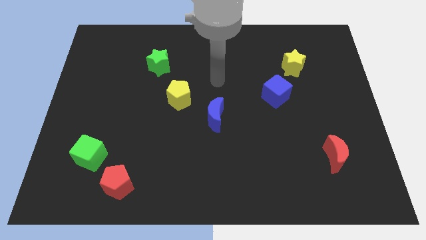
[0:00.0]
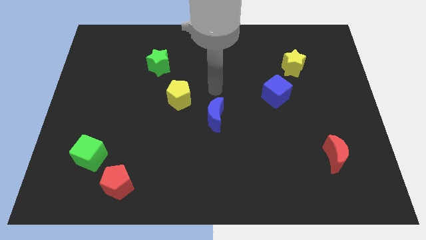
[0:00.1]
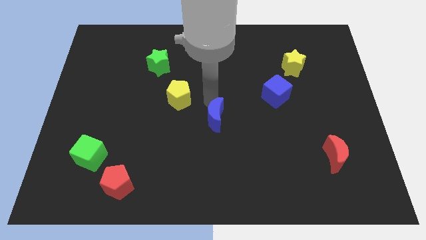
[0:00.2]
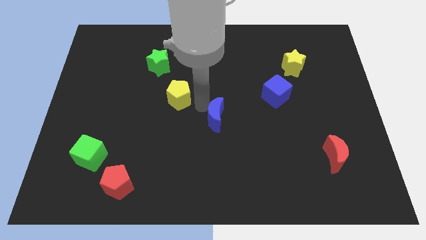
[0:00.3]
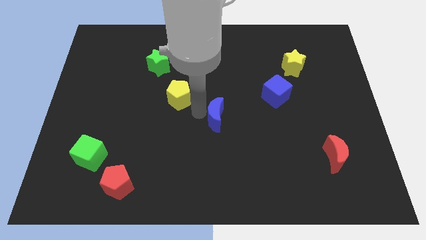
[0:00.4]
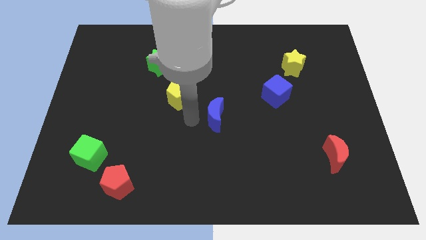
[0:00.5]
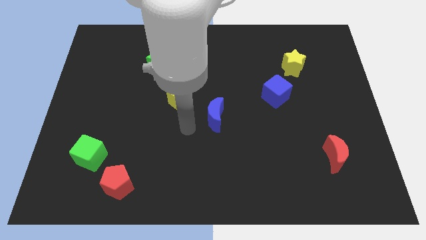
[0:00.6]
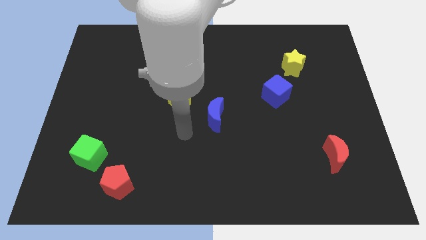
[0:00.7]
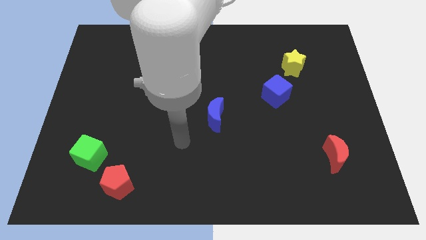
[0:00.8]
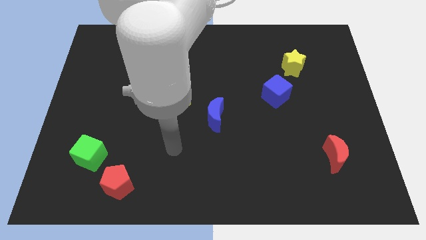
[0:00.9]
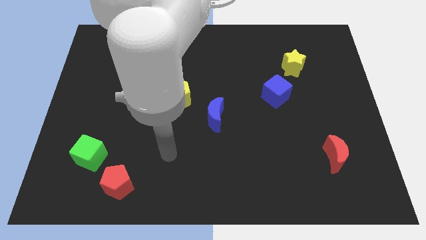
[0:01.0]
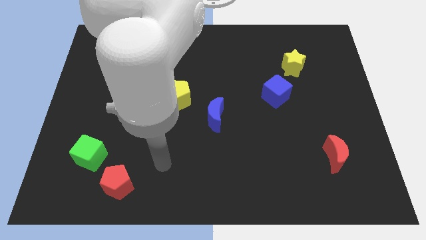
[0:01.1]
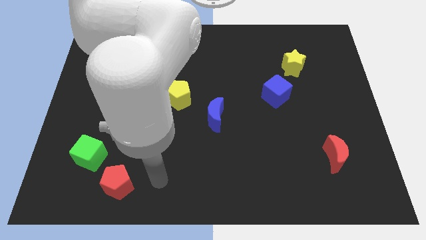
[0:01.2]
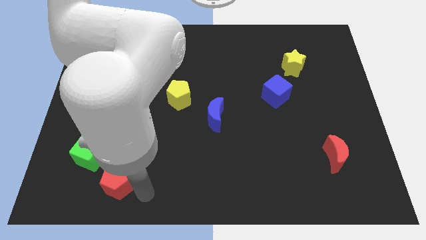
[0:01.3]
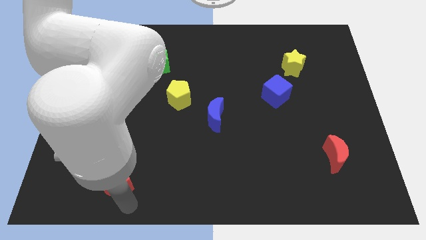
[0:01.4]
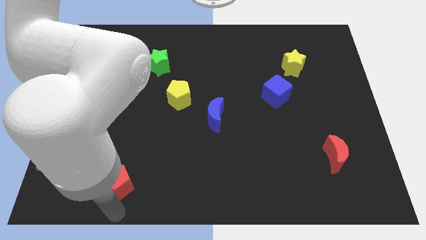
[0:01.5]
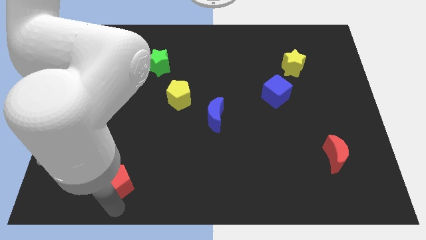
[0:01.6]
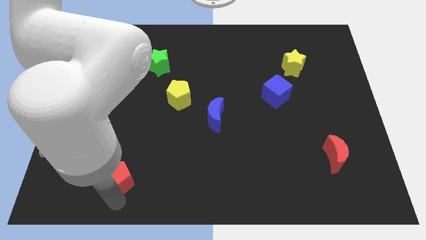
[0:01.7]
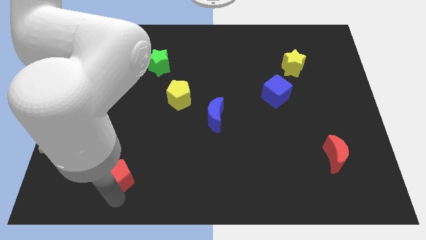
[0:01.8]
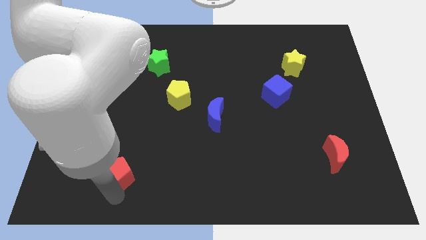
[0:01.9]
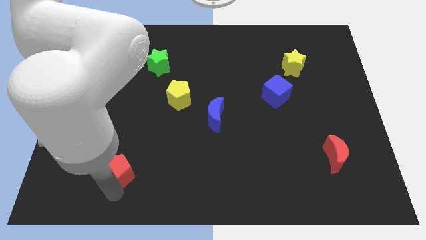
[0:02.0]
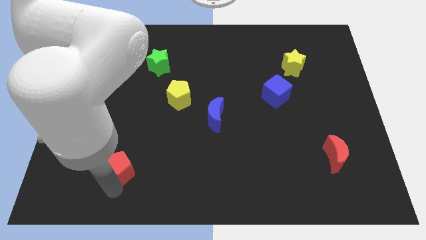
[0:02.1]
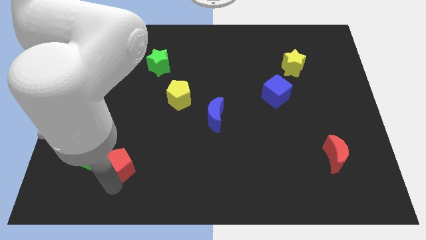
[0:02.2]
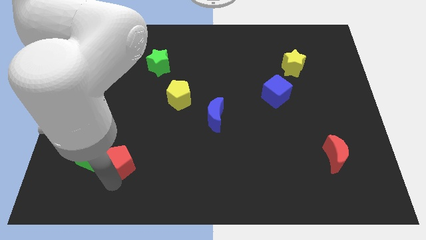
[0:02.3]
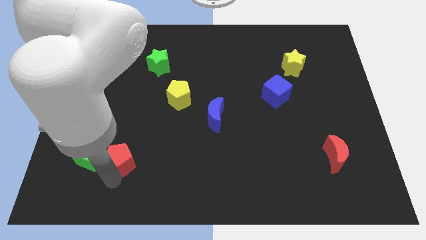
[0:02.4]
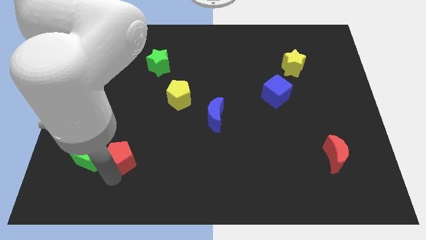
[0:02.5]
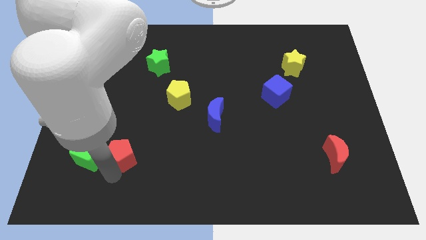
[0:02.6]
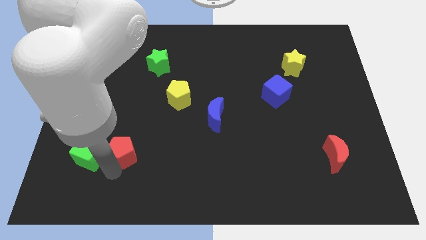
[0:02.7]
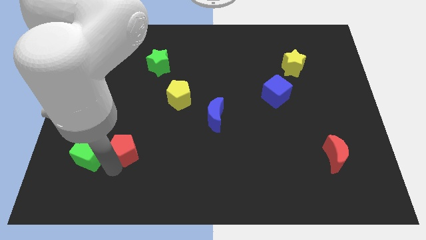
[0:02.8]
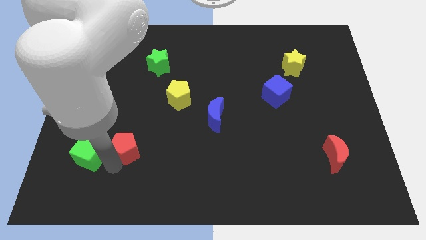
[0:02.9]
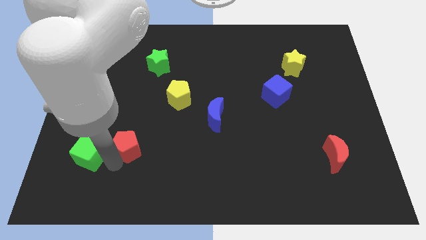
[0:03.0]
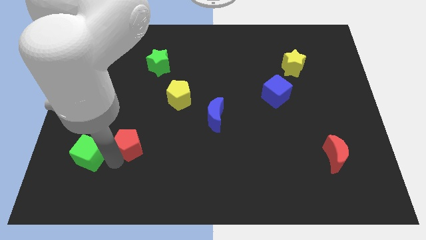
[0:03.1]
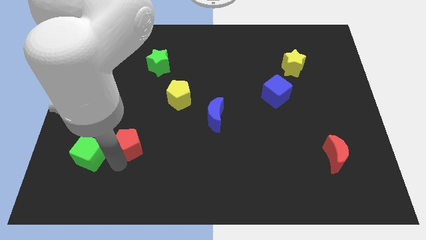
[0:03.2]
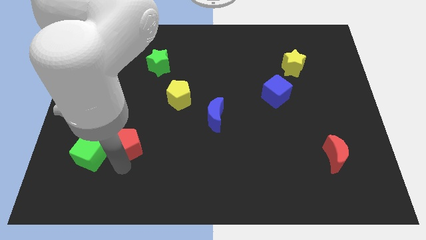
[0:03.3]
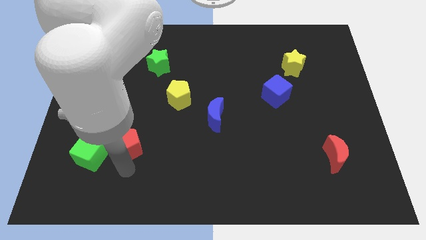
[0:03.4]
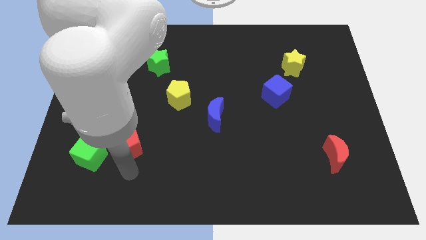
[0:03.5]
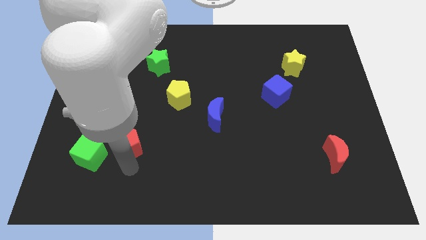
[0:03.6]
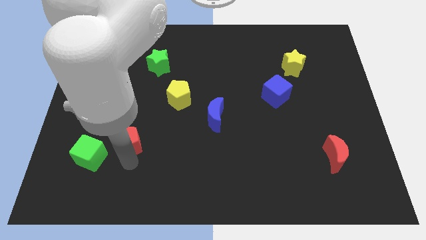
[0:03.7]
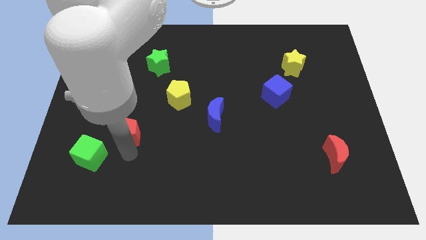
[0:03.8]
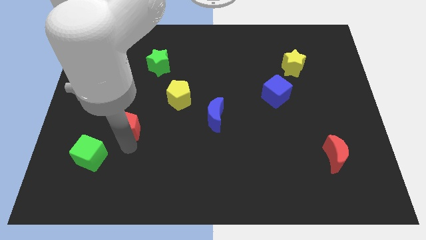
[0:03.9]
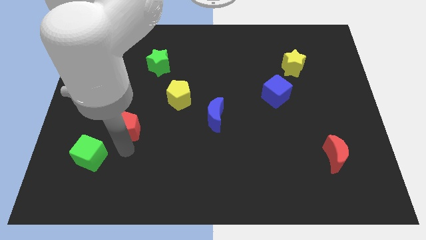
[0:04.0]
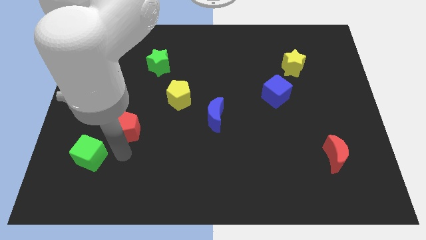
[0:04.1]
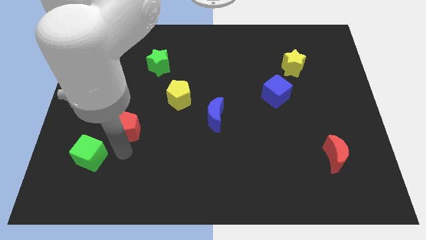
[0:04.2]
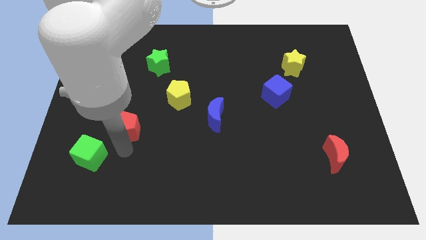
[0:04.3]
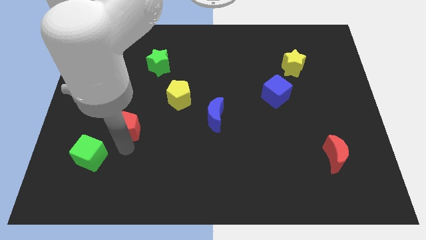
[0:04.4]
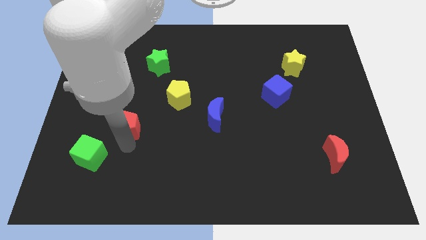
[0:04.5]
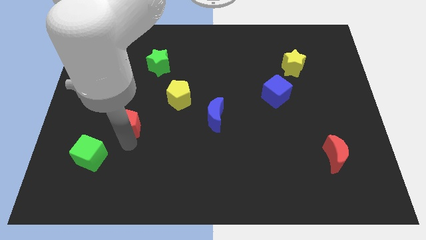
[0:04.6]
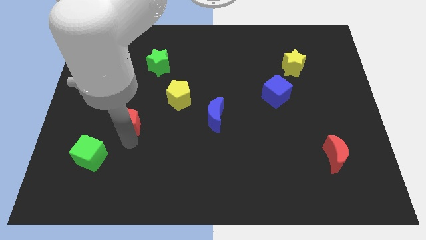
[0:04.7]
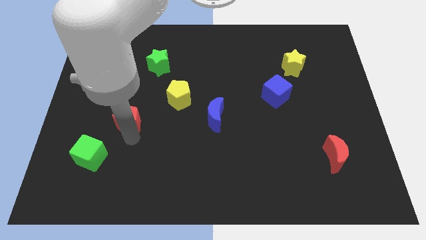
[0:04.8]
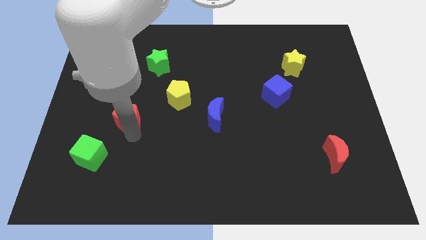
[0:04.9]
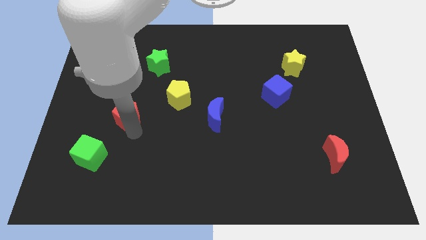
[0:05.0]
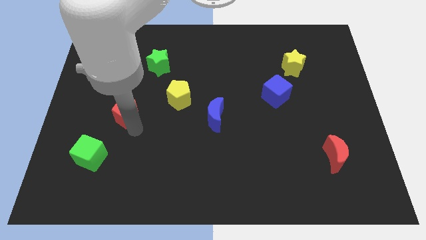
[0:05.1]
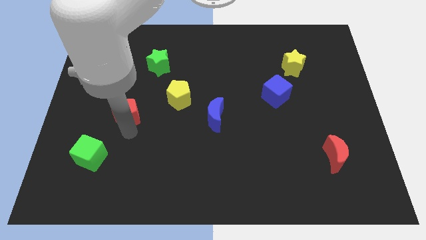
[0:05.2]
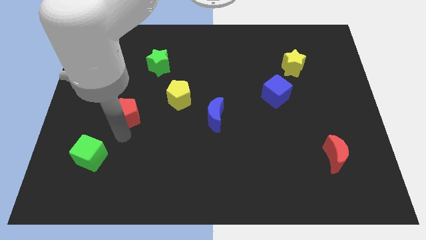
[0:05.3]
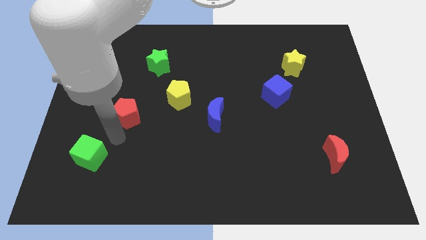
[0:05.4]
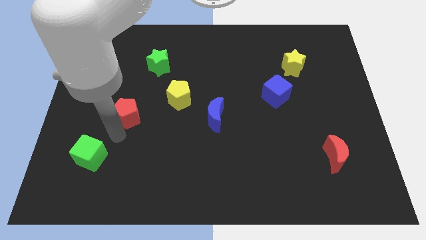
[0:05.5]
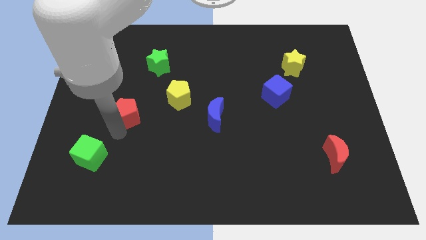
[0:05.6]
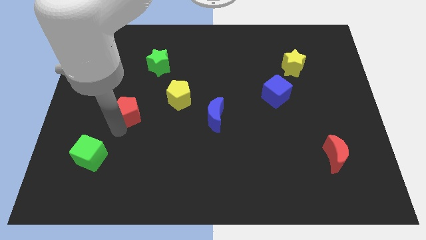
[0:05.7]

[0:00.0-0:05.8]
slide the red pentagon to the left of the yellow pentagon

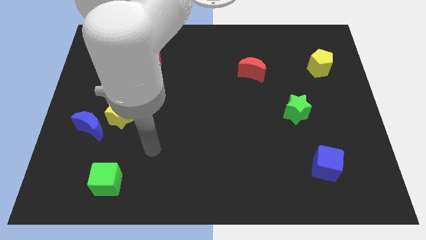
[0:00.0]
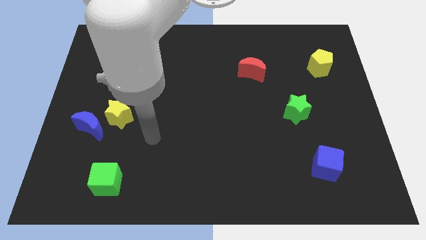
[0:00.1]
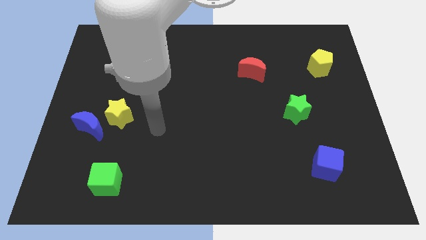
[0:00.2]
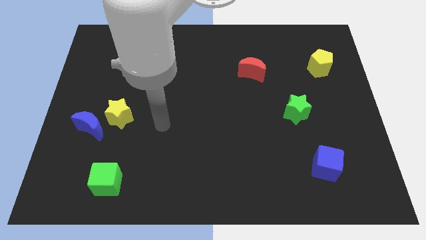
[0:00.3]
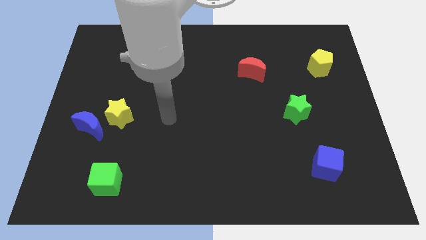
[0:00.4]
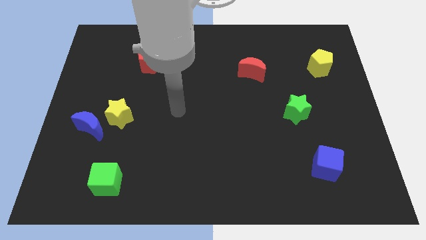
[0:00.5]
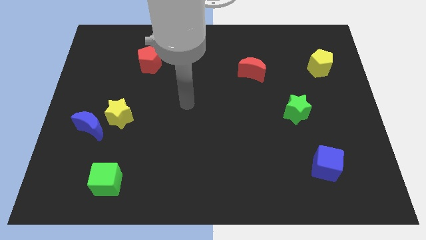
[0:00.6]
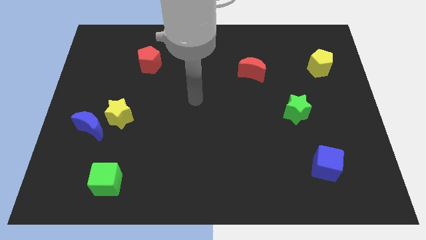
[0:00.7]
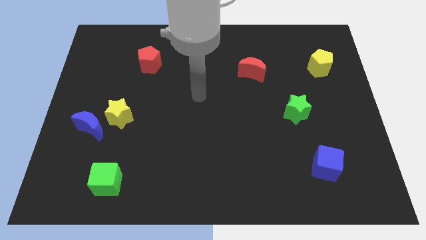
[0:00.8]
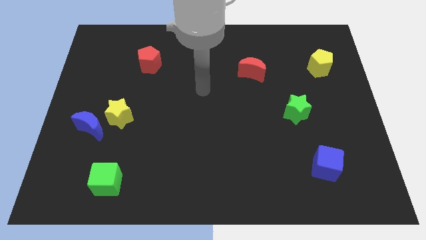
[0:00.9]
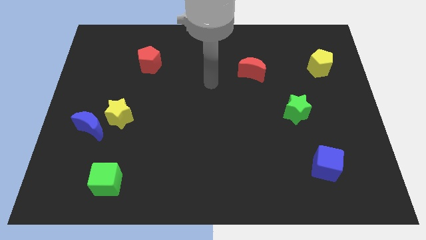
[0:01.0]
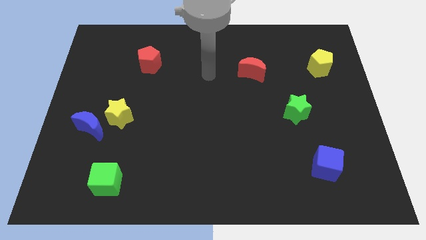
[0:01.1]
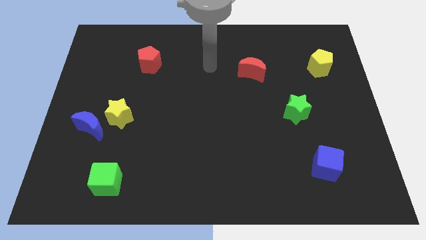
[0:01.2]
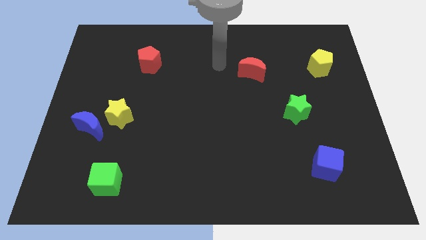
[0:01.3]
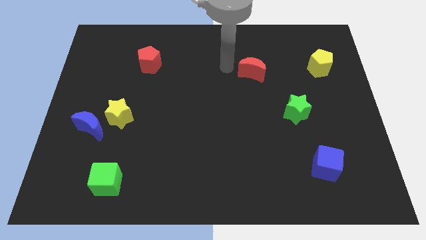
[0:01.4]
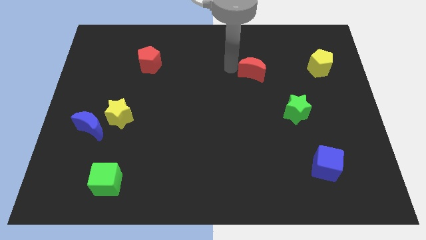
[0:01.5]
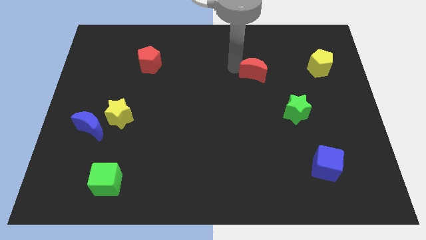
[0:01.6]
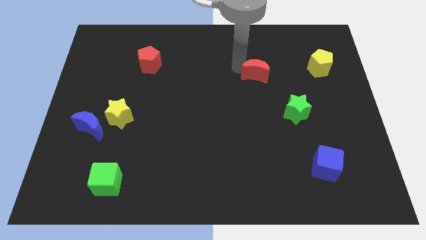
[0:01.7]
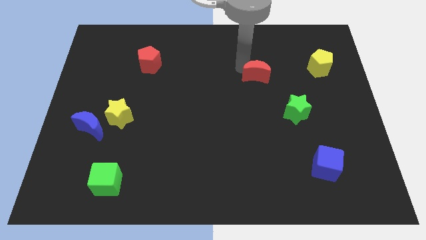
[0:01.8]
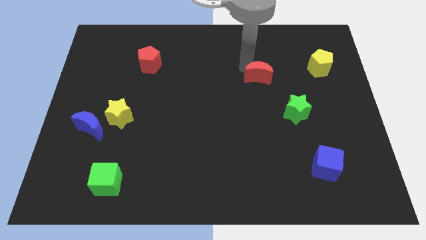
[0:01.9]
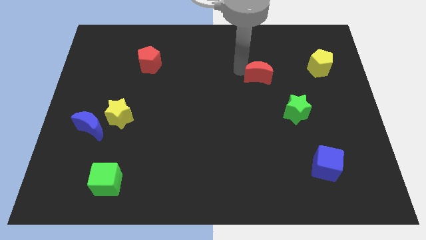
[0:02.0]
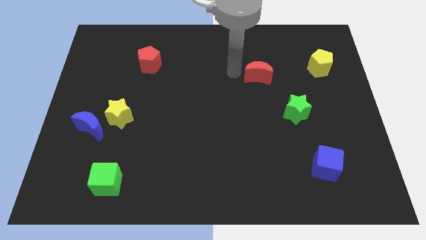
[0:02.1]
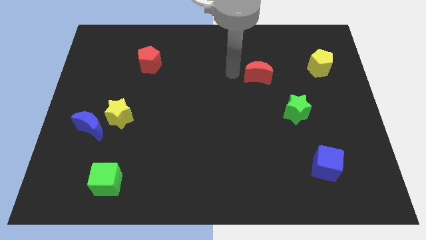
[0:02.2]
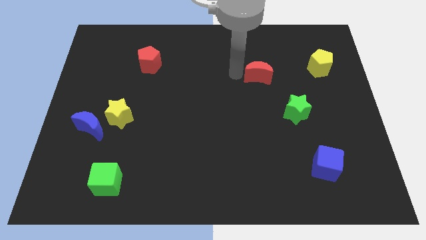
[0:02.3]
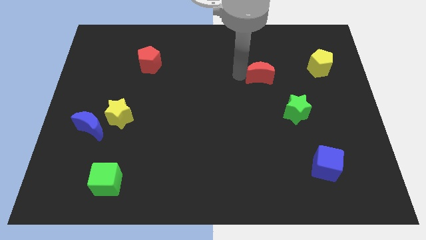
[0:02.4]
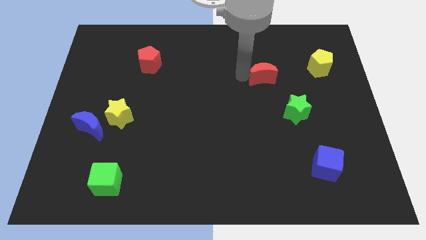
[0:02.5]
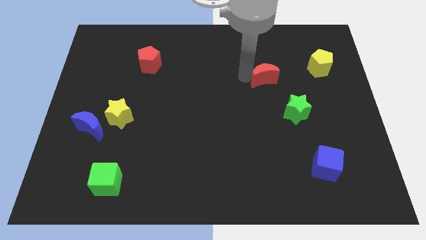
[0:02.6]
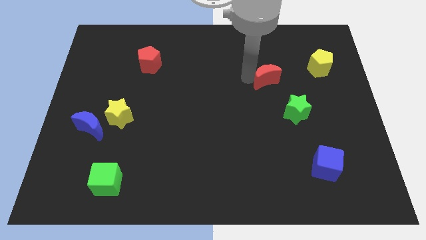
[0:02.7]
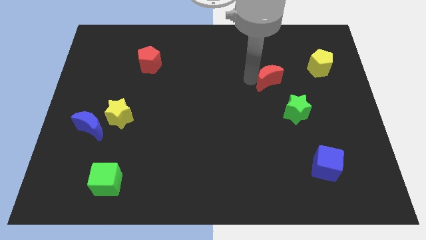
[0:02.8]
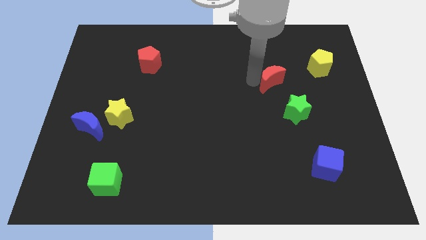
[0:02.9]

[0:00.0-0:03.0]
put the red moon to the top of the green star
